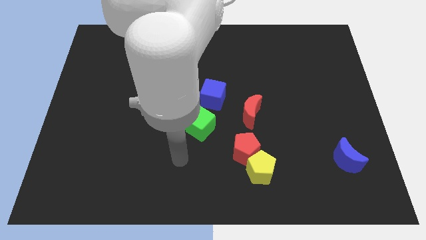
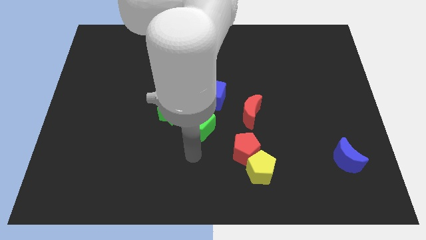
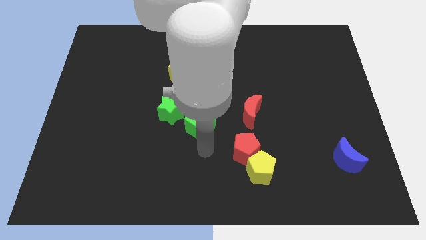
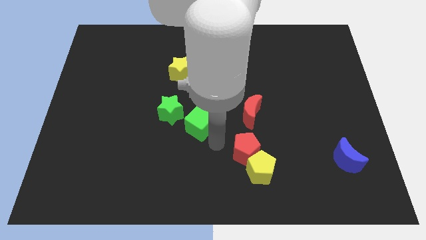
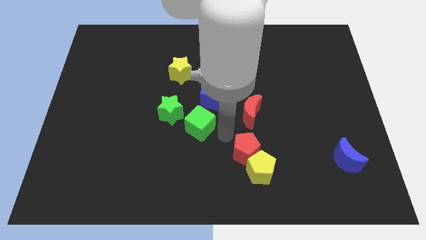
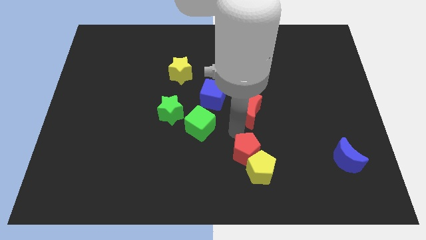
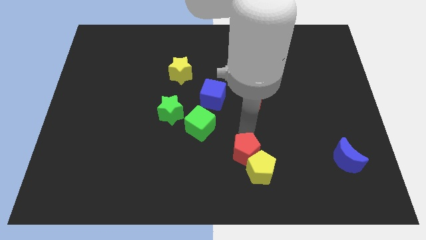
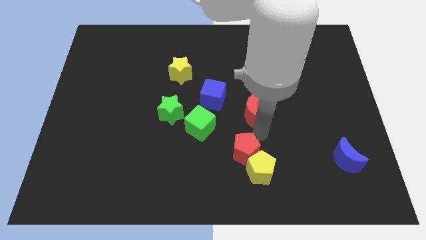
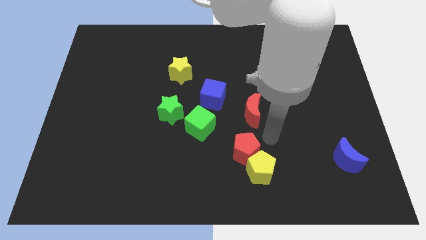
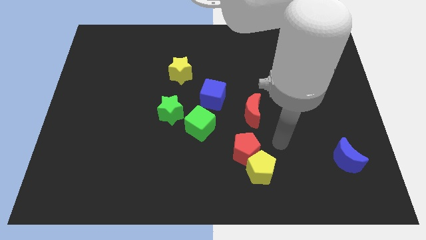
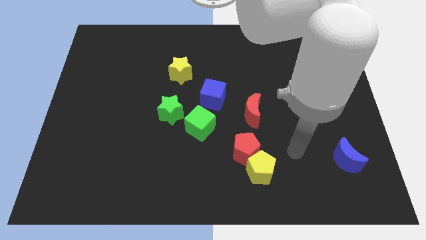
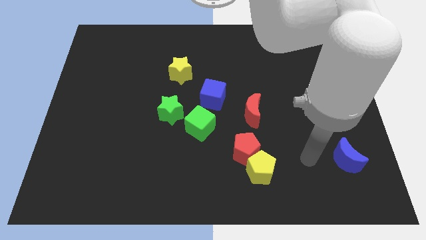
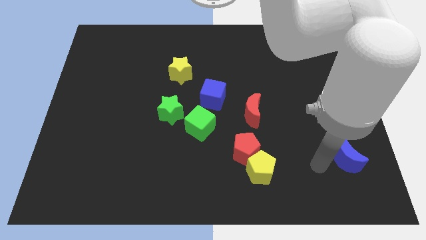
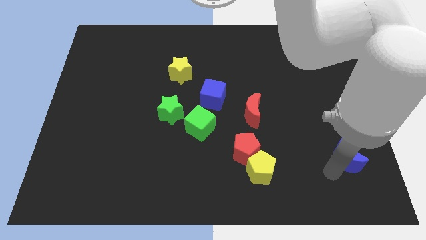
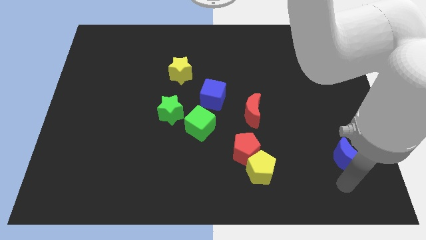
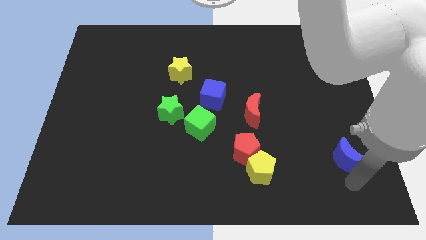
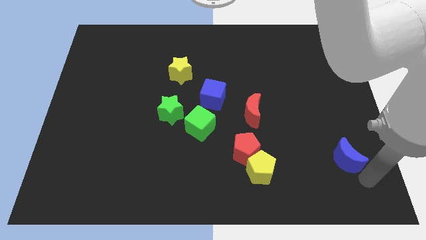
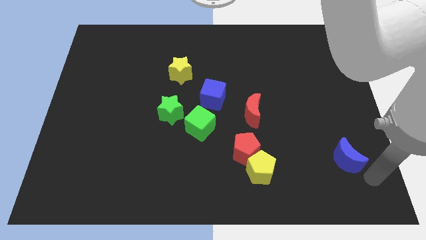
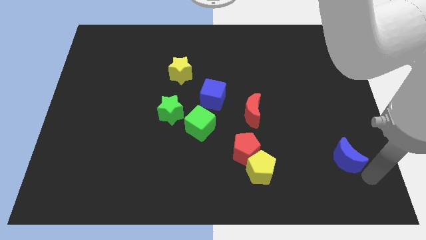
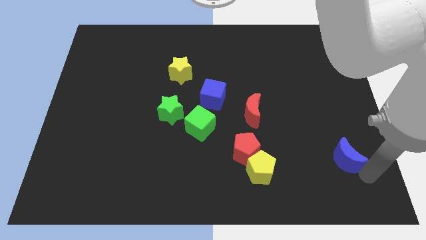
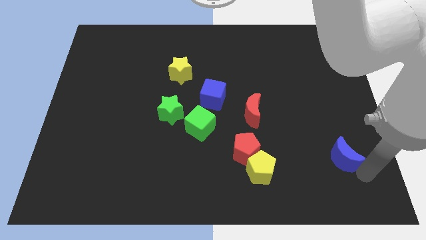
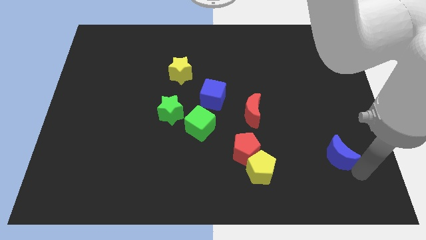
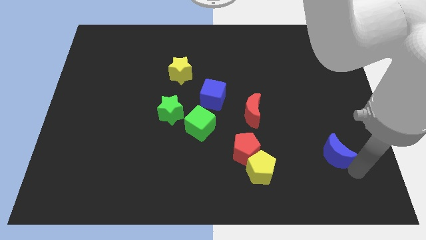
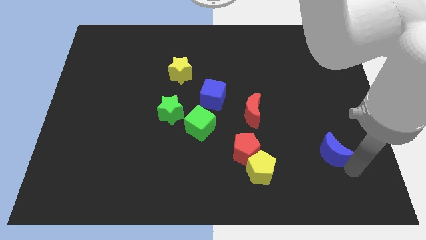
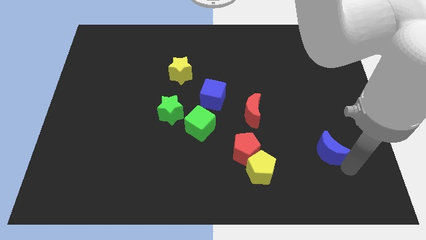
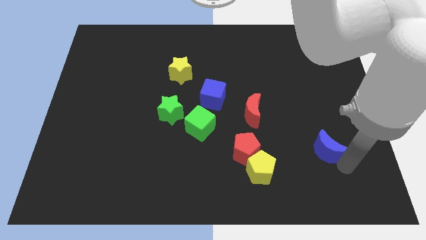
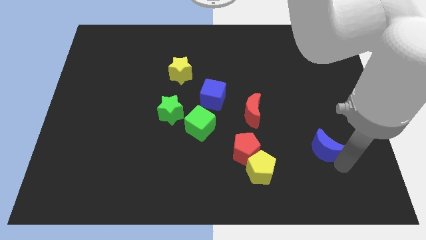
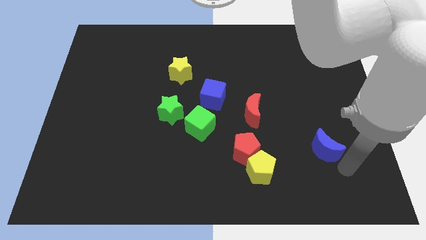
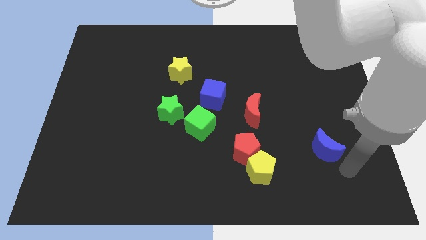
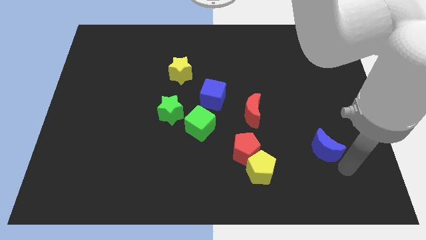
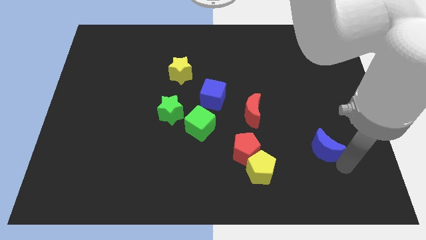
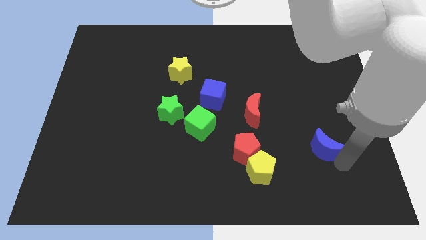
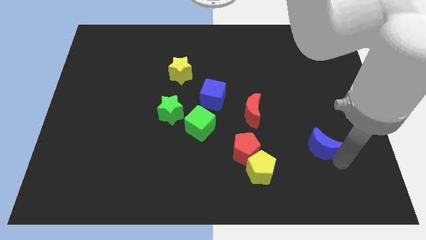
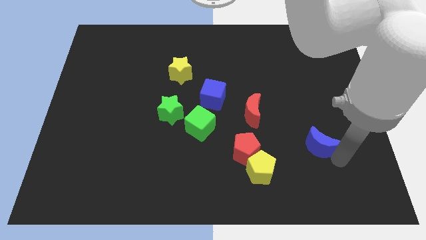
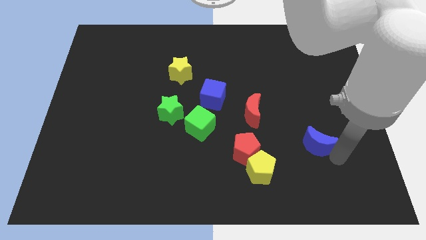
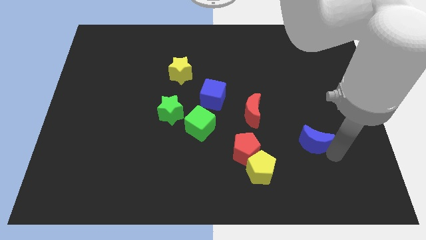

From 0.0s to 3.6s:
slide the blue moon upwards and to the left somewhat

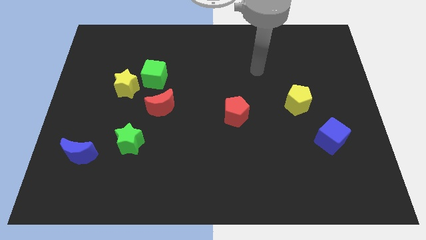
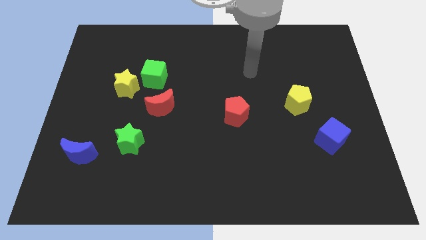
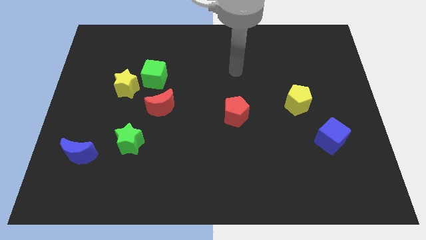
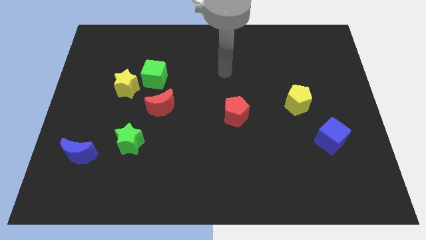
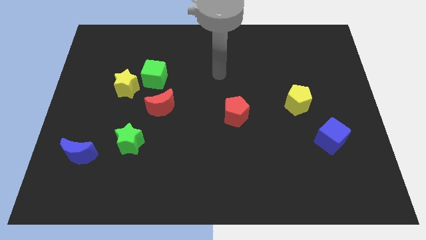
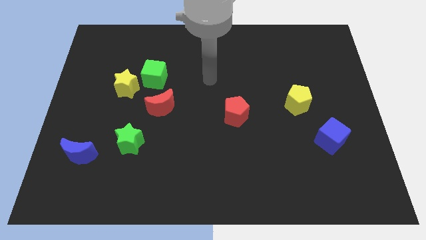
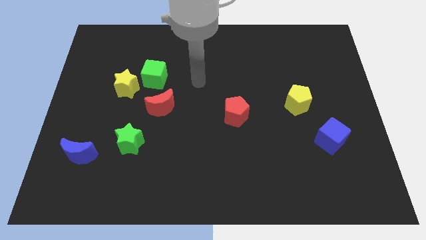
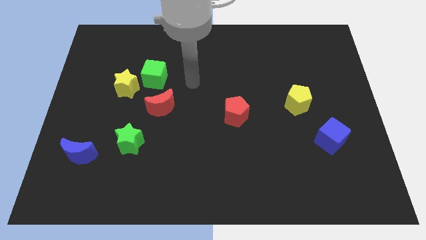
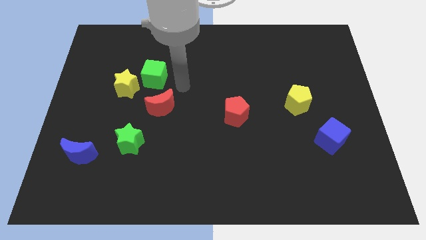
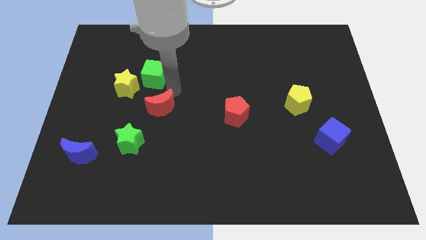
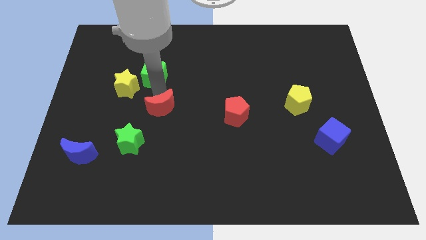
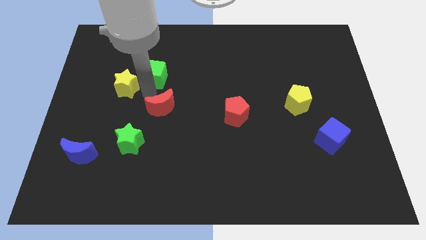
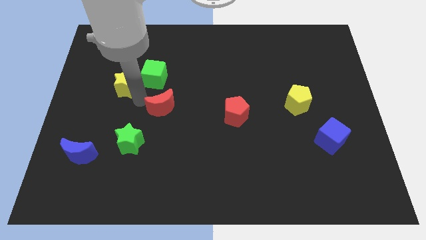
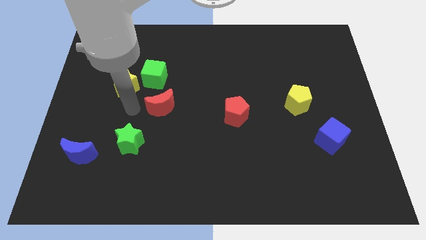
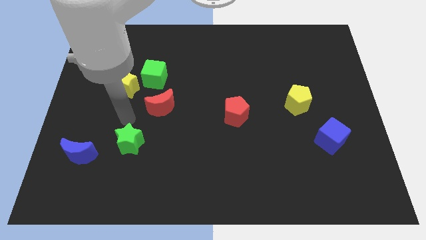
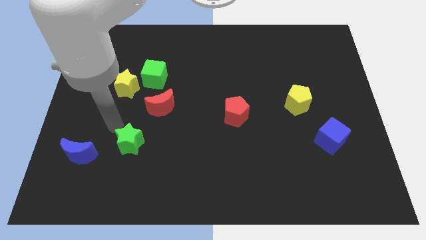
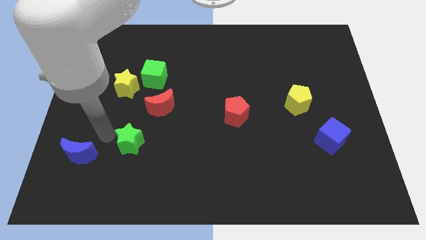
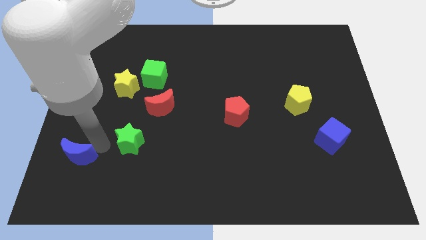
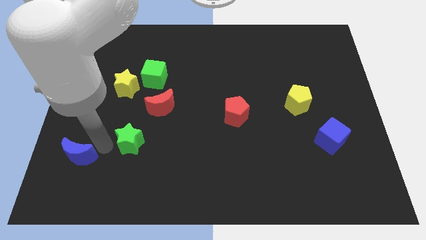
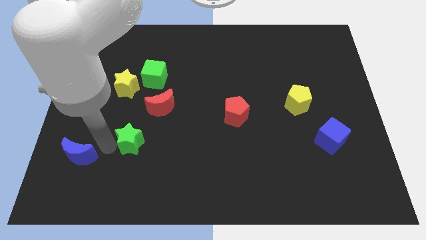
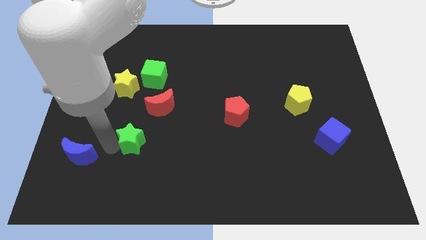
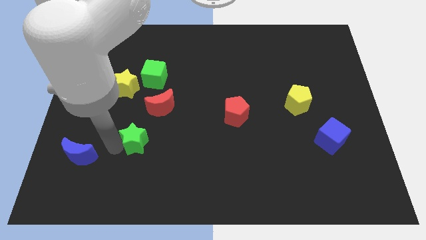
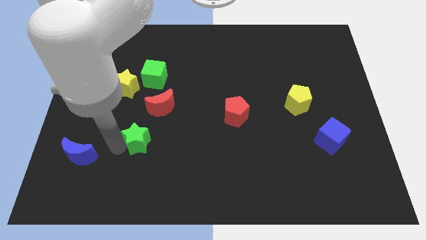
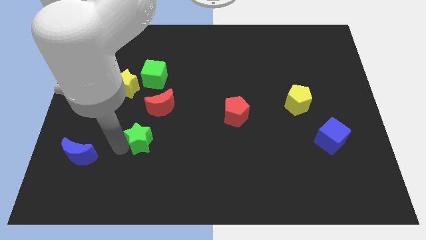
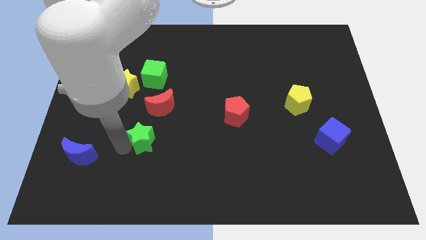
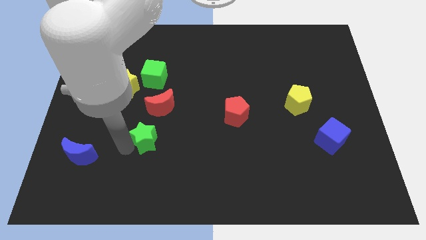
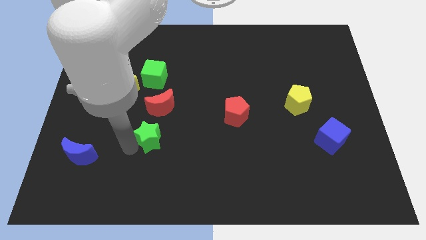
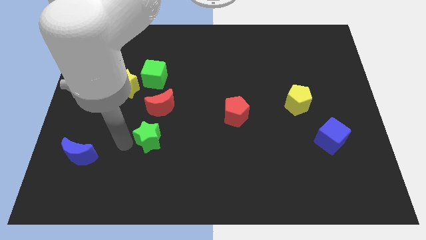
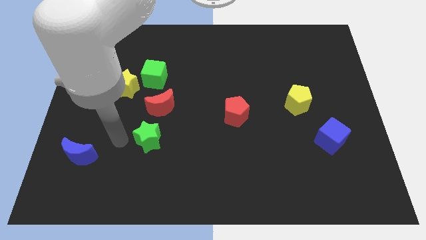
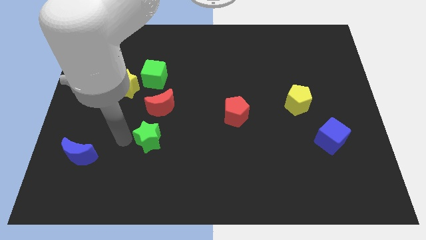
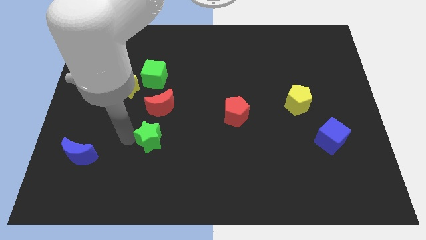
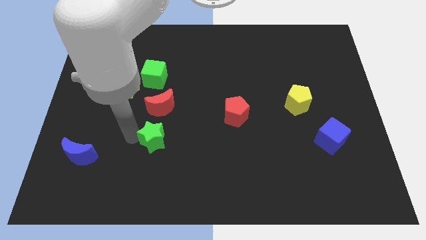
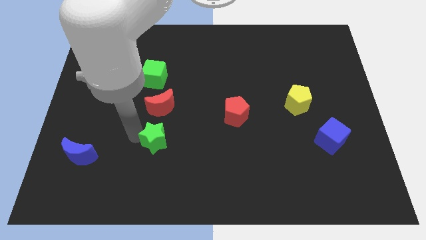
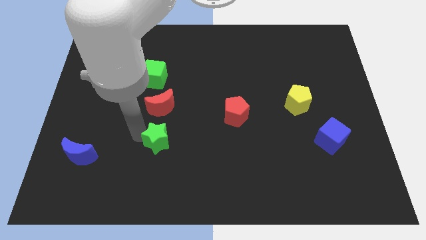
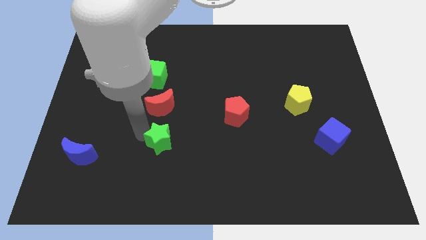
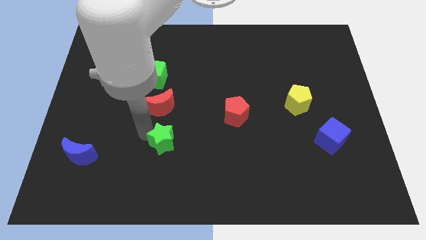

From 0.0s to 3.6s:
slide the green star right a little bit

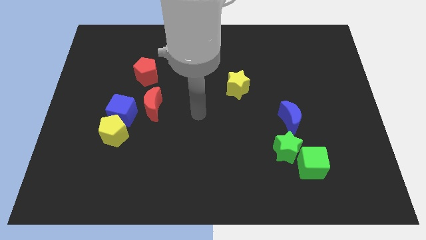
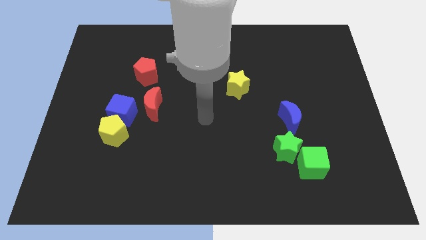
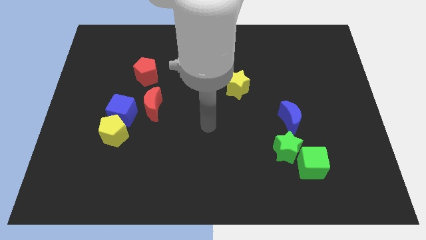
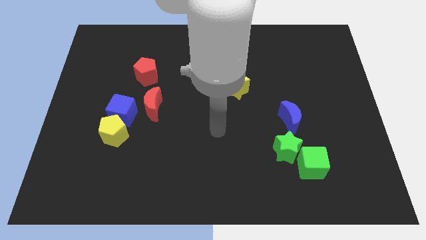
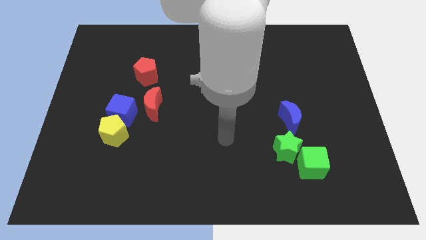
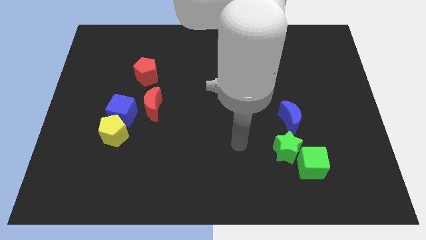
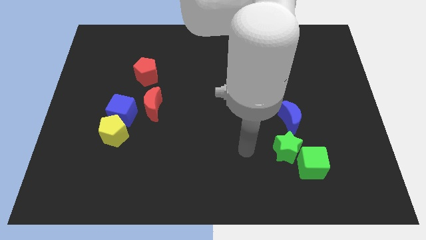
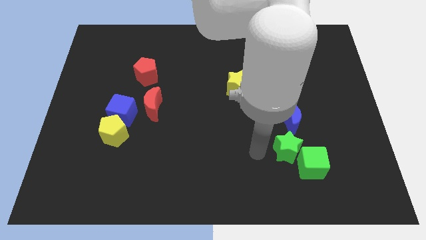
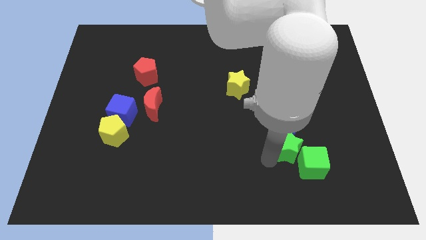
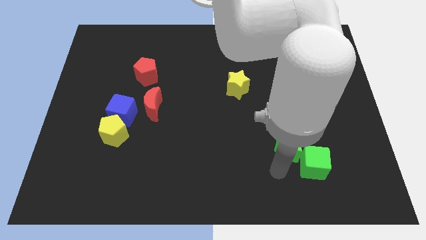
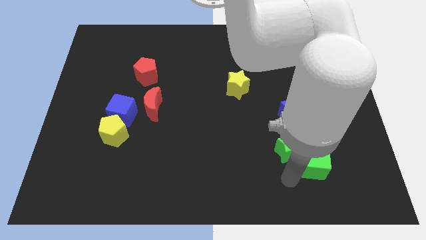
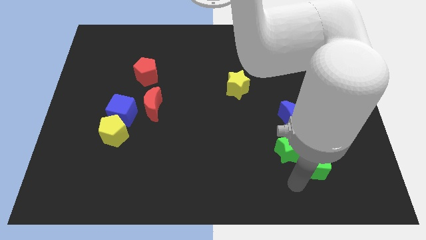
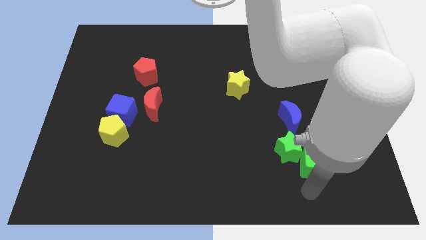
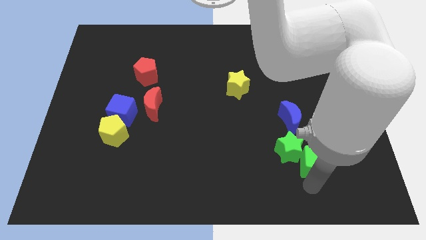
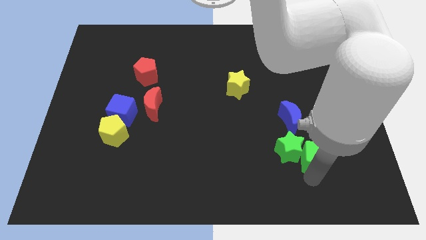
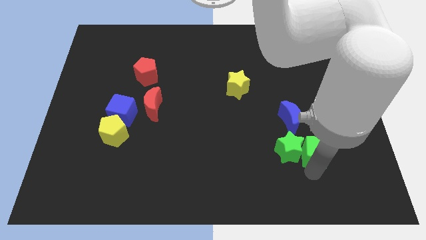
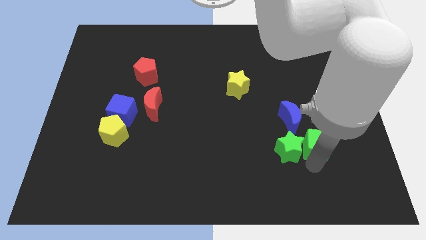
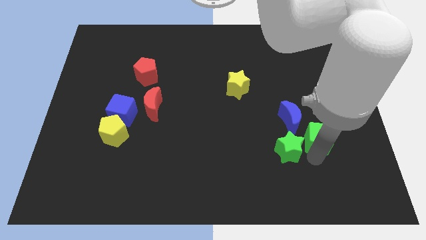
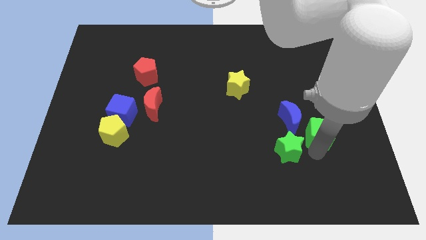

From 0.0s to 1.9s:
slightly push the green cube up
